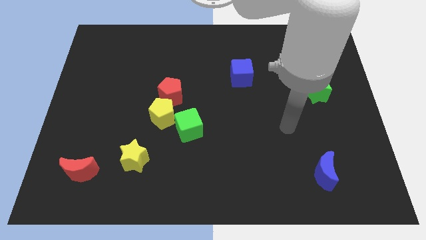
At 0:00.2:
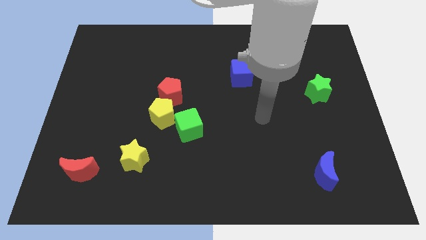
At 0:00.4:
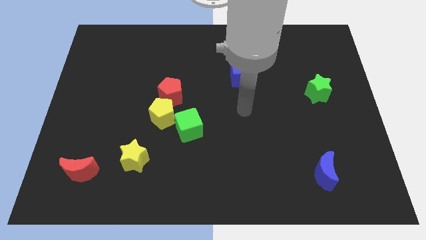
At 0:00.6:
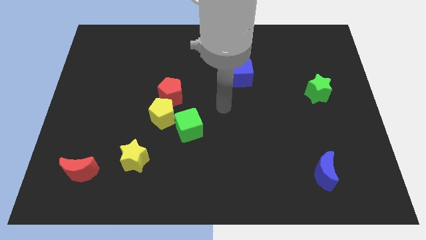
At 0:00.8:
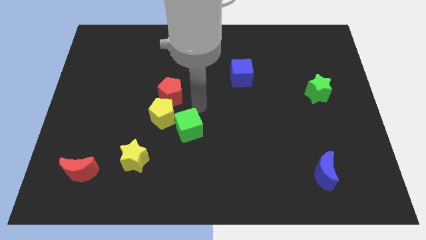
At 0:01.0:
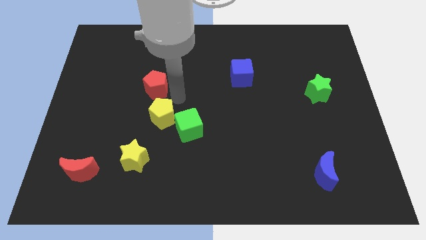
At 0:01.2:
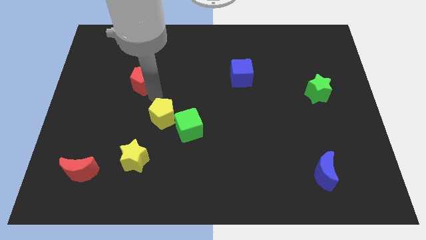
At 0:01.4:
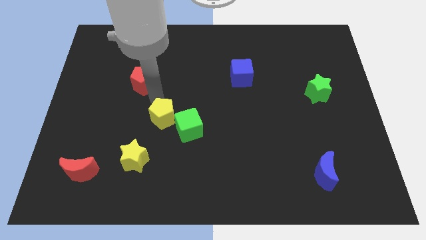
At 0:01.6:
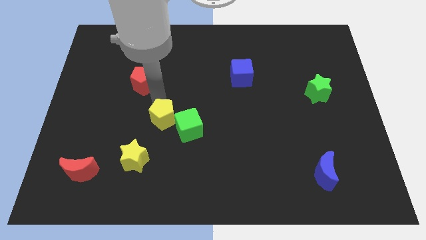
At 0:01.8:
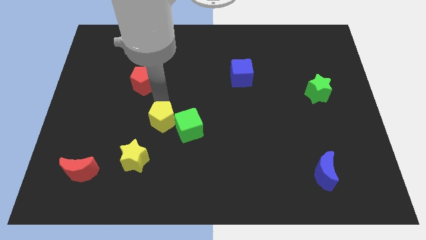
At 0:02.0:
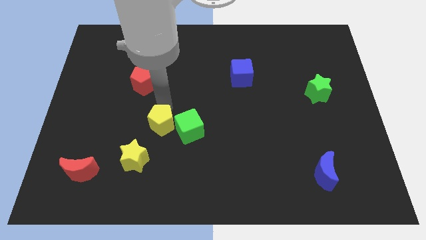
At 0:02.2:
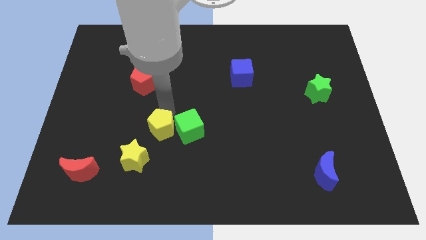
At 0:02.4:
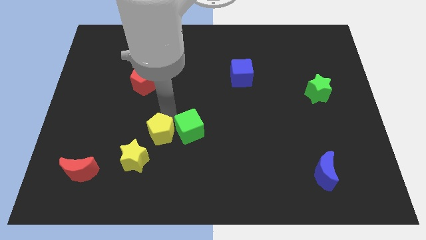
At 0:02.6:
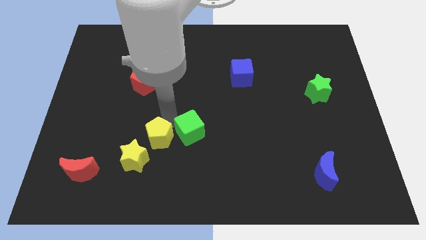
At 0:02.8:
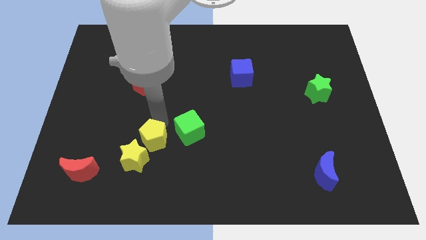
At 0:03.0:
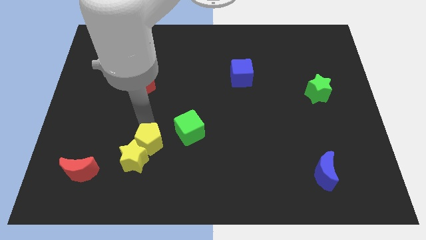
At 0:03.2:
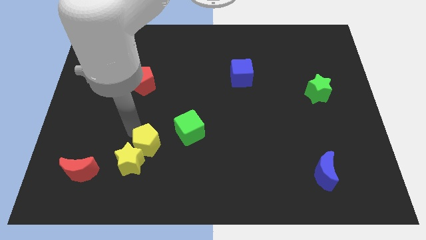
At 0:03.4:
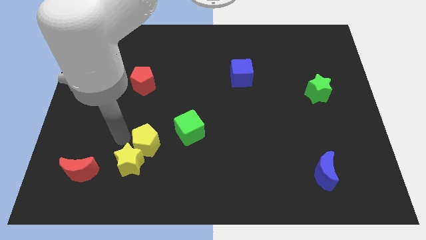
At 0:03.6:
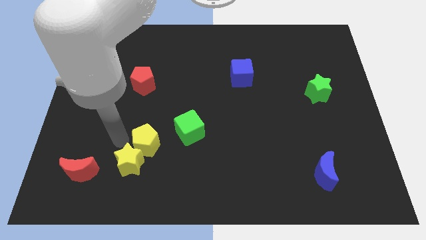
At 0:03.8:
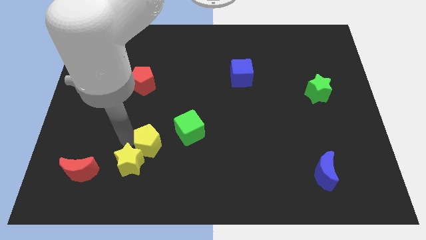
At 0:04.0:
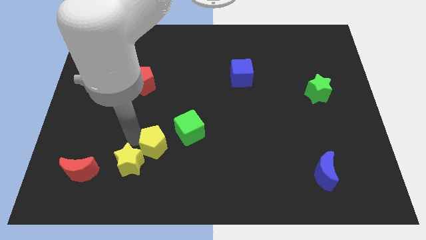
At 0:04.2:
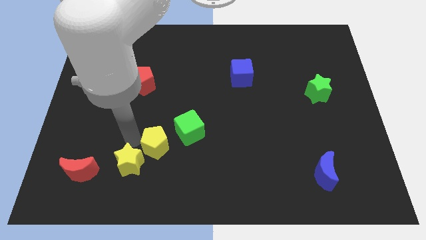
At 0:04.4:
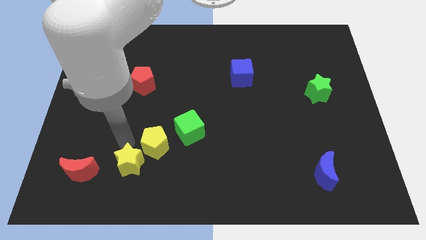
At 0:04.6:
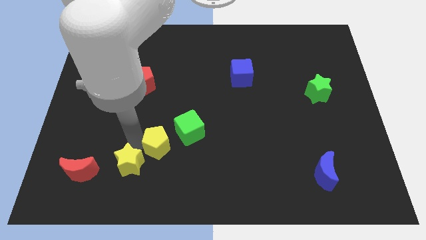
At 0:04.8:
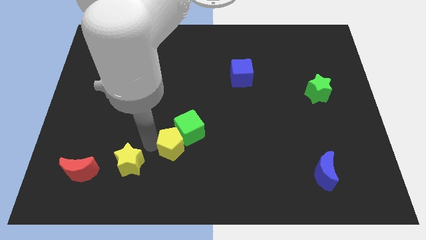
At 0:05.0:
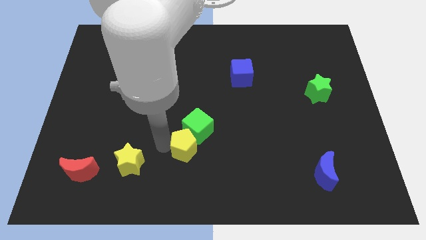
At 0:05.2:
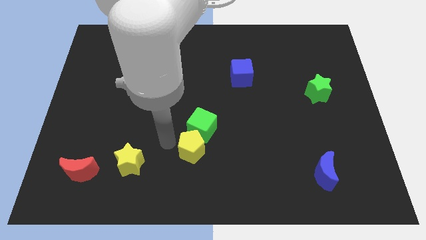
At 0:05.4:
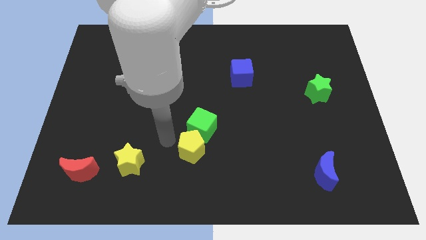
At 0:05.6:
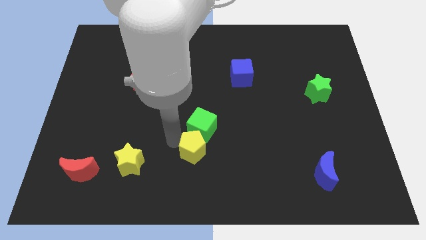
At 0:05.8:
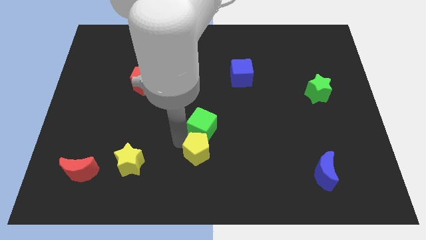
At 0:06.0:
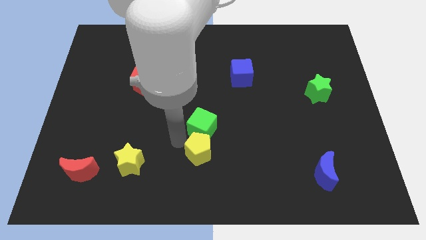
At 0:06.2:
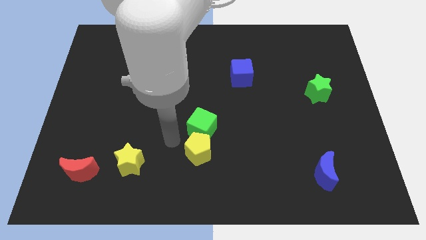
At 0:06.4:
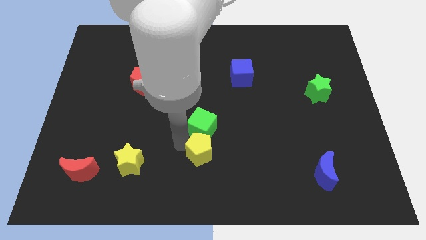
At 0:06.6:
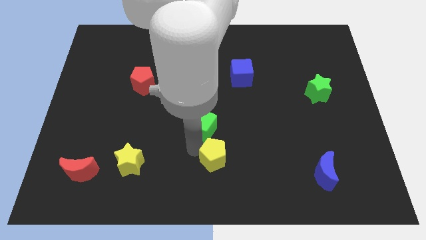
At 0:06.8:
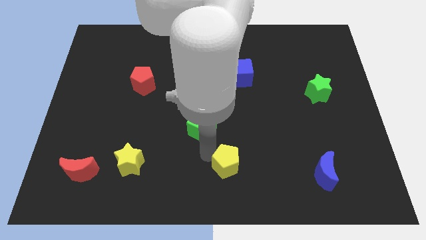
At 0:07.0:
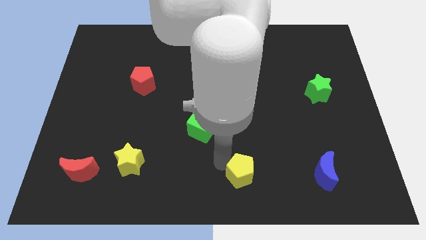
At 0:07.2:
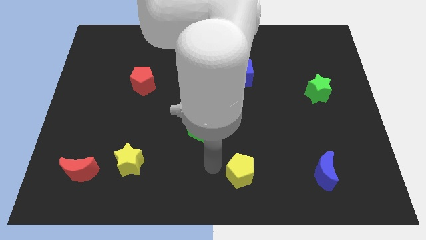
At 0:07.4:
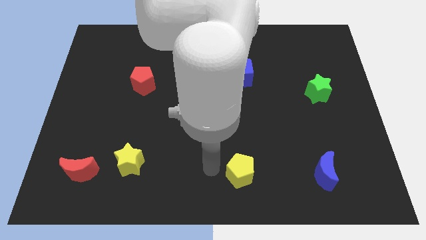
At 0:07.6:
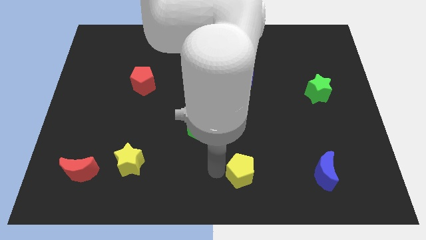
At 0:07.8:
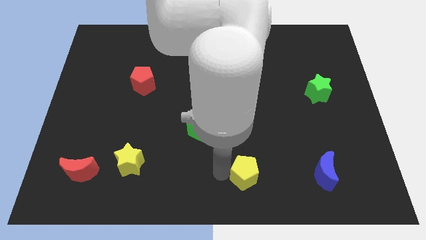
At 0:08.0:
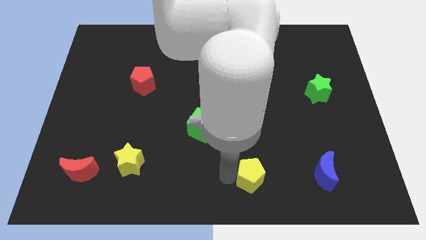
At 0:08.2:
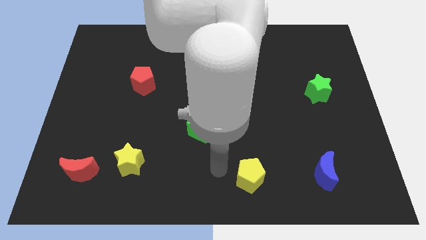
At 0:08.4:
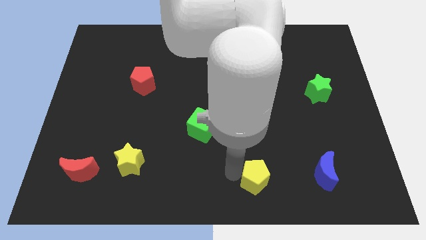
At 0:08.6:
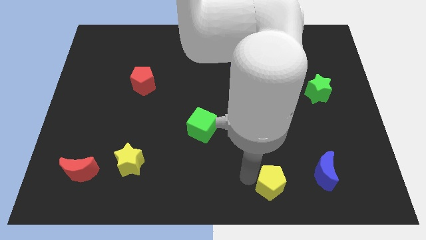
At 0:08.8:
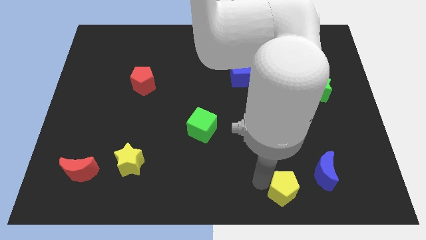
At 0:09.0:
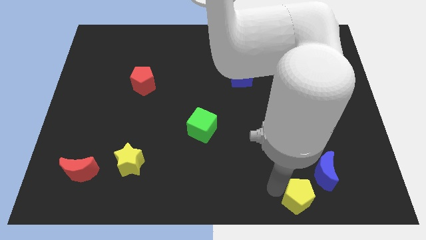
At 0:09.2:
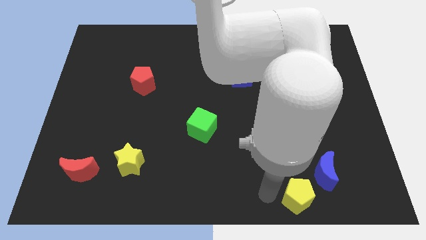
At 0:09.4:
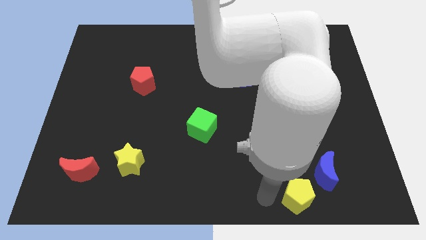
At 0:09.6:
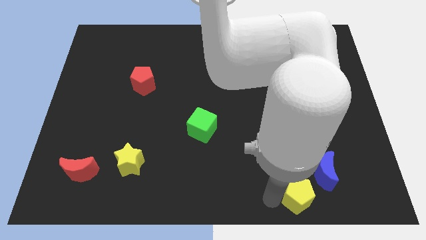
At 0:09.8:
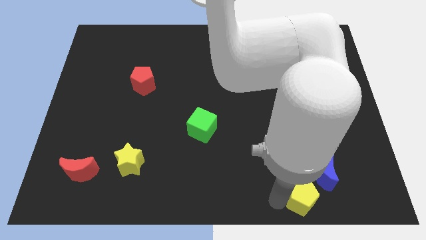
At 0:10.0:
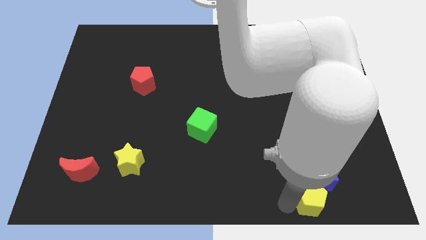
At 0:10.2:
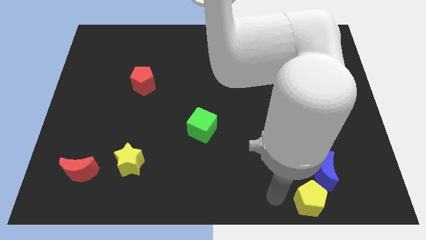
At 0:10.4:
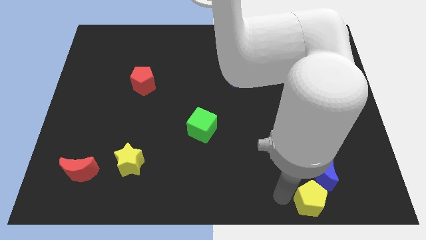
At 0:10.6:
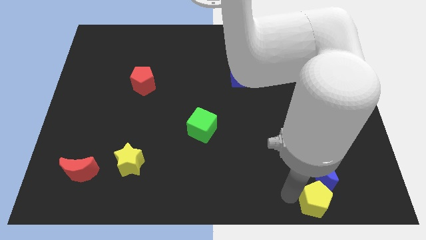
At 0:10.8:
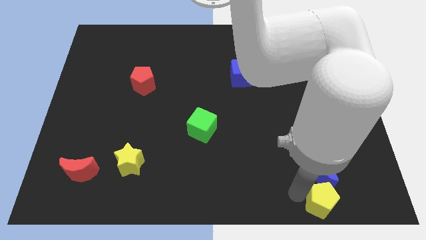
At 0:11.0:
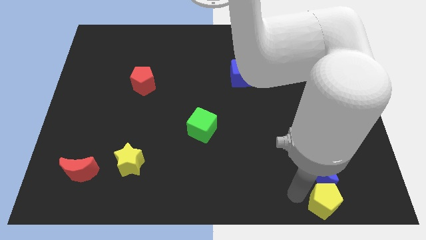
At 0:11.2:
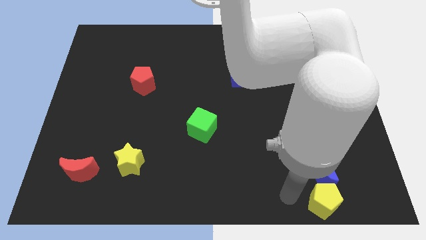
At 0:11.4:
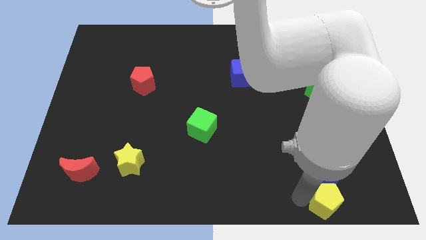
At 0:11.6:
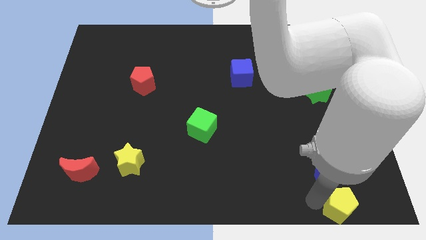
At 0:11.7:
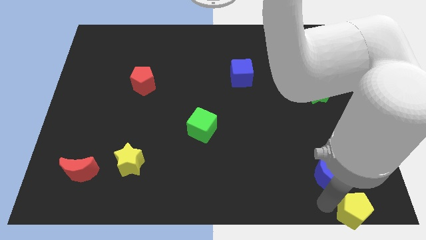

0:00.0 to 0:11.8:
put the yellow pentagon to the lower right corner

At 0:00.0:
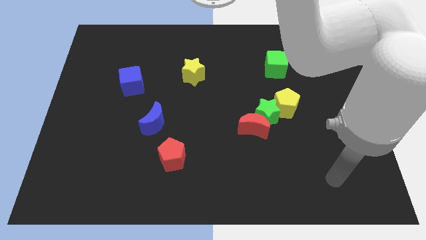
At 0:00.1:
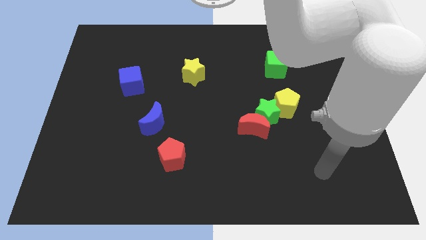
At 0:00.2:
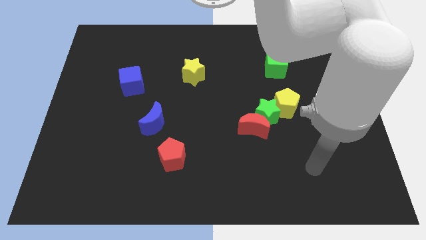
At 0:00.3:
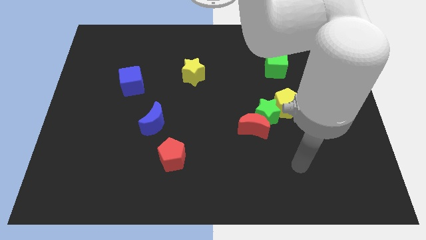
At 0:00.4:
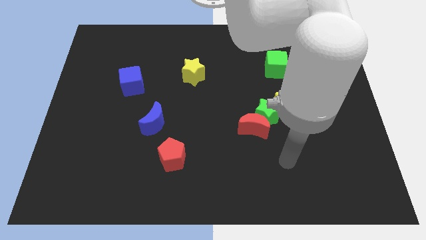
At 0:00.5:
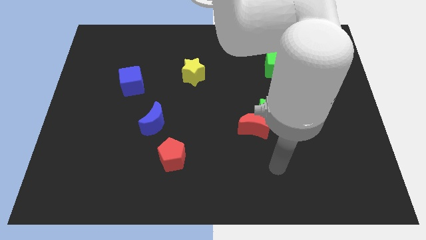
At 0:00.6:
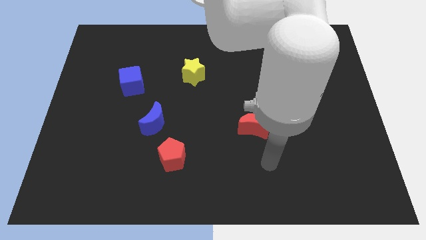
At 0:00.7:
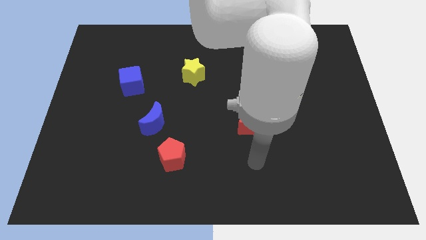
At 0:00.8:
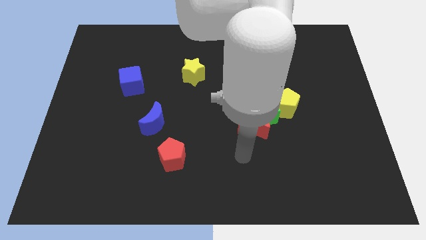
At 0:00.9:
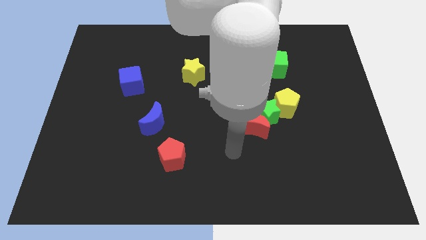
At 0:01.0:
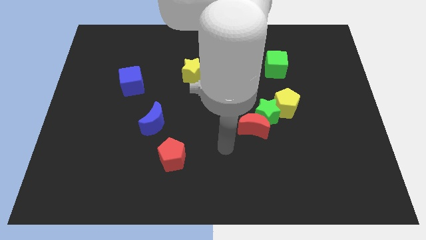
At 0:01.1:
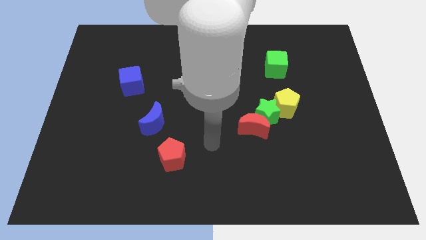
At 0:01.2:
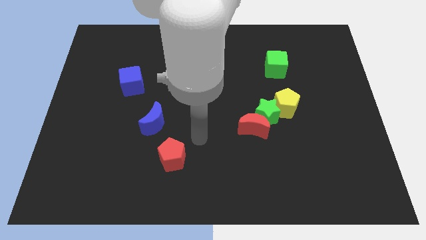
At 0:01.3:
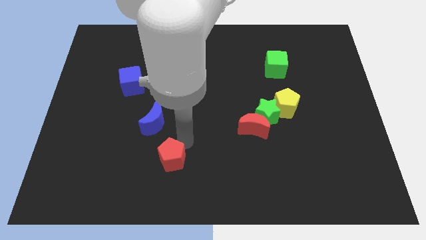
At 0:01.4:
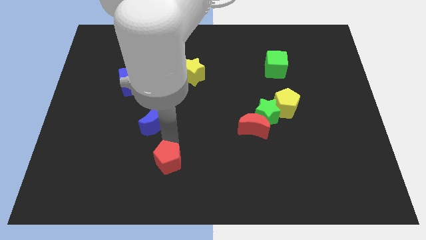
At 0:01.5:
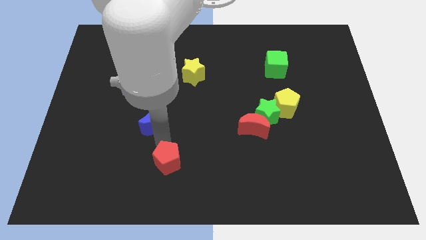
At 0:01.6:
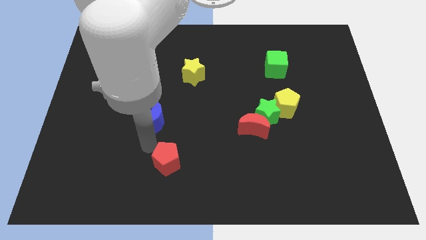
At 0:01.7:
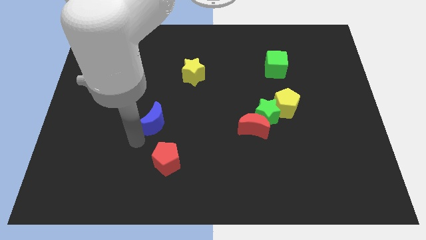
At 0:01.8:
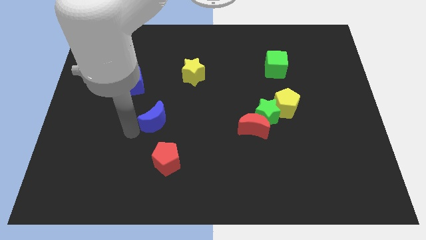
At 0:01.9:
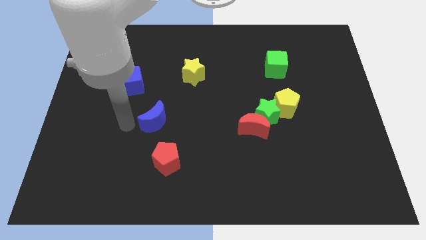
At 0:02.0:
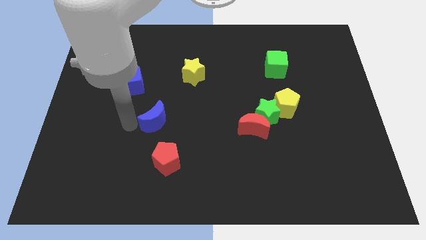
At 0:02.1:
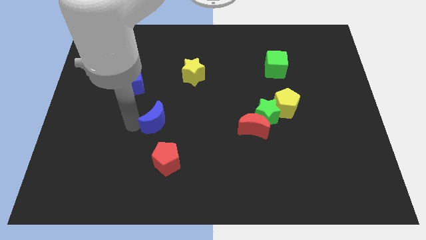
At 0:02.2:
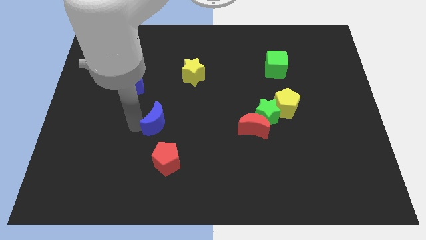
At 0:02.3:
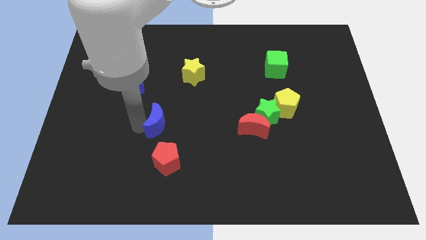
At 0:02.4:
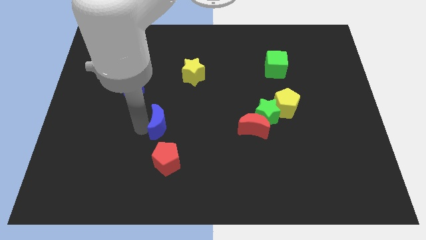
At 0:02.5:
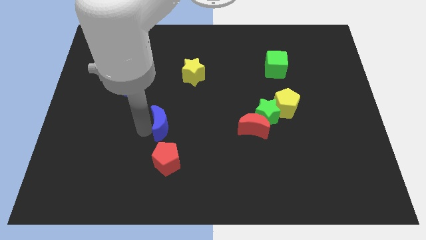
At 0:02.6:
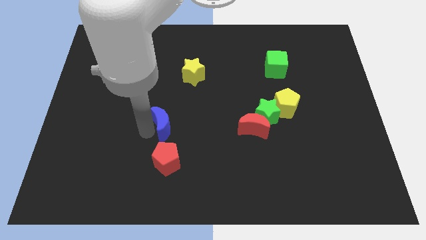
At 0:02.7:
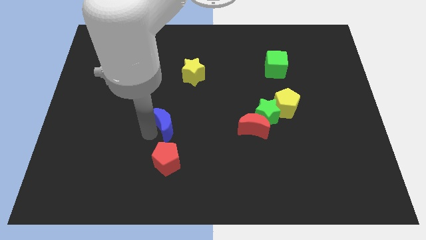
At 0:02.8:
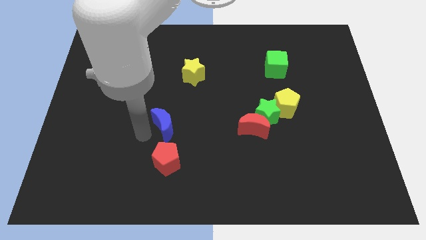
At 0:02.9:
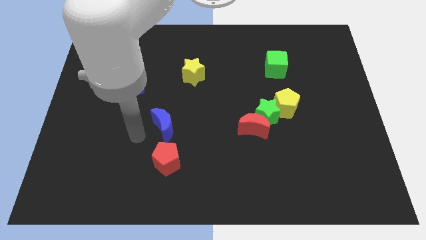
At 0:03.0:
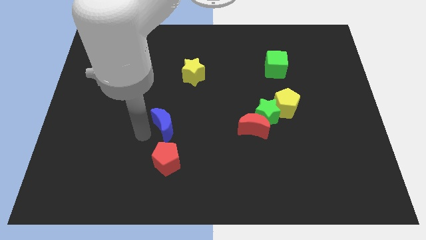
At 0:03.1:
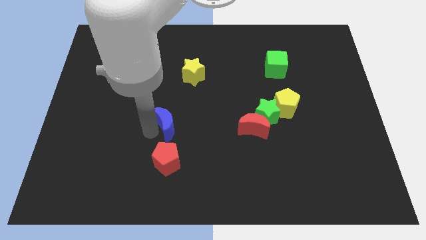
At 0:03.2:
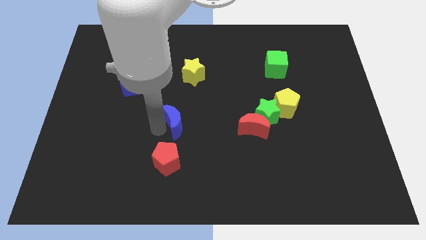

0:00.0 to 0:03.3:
put the blue moon to the middle of the board
